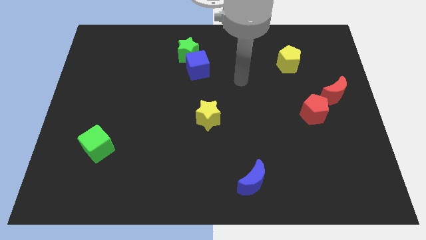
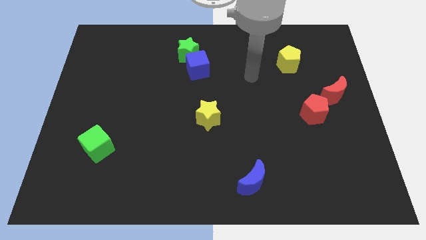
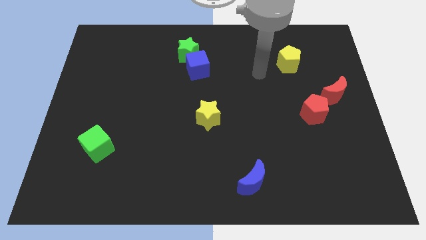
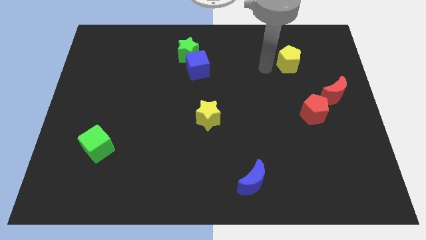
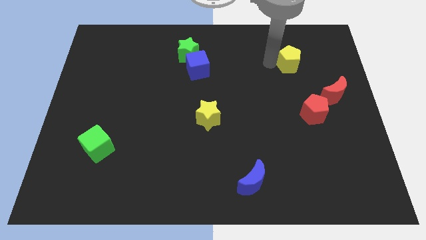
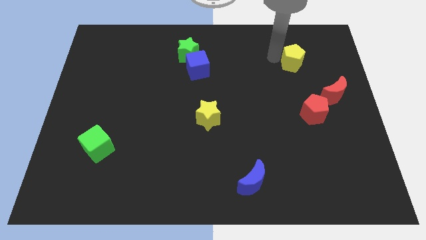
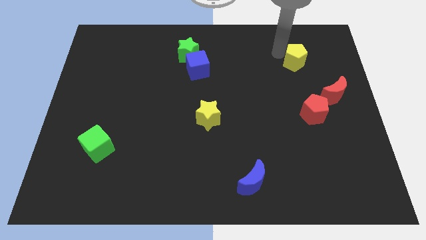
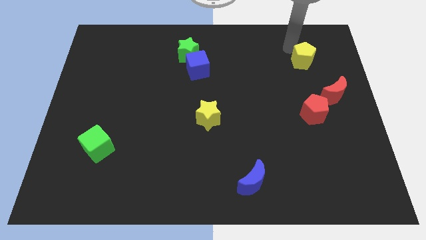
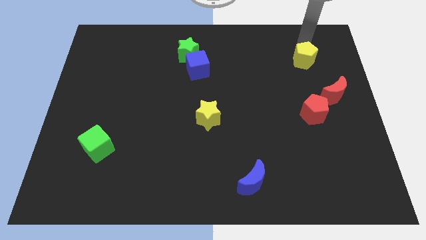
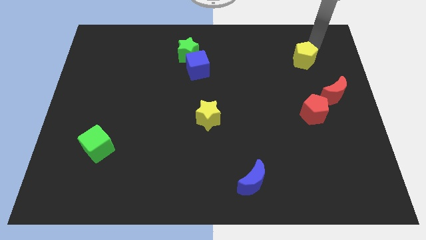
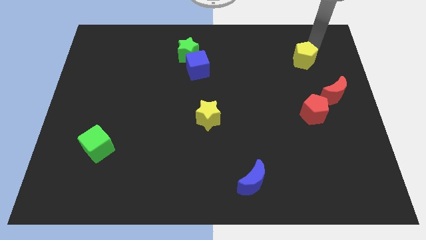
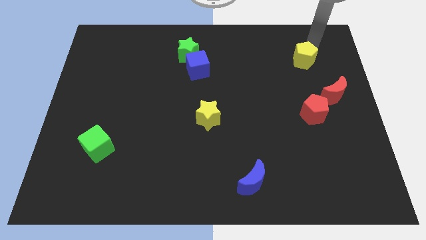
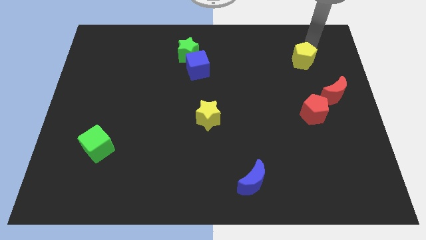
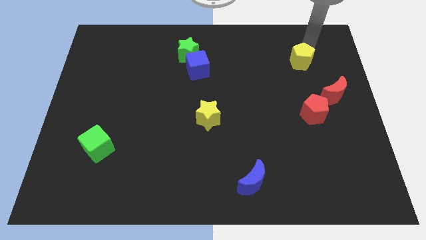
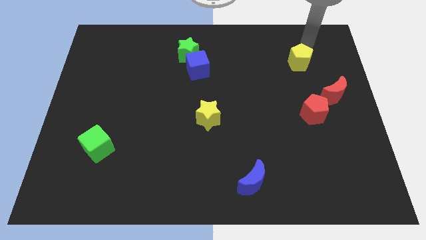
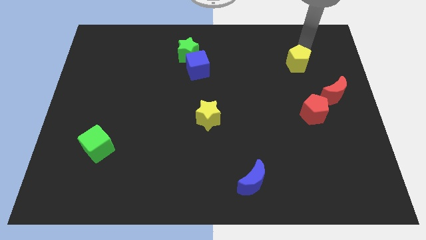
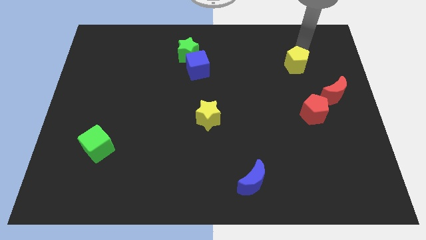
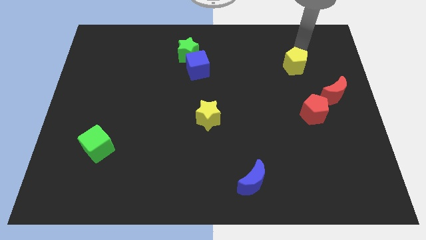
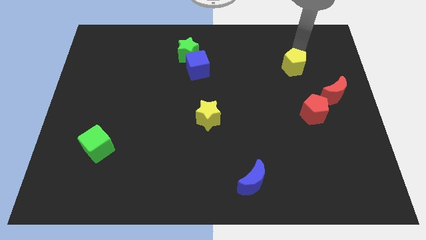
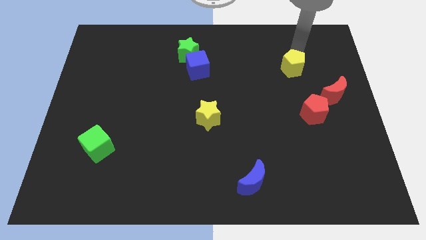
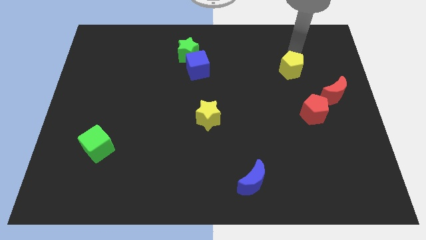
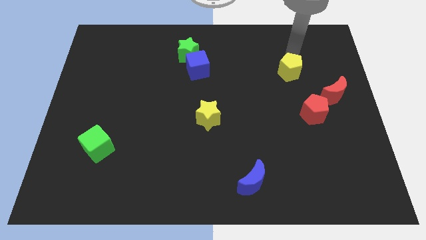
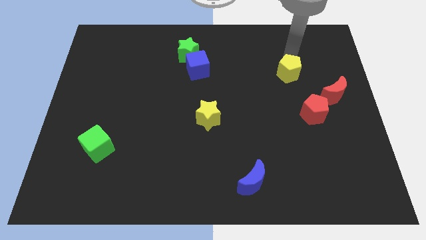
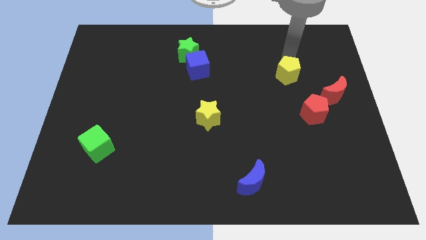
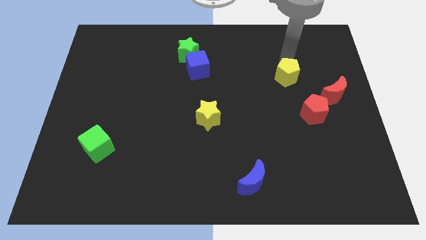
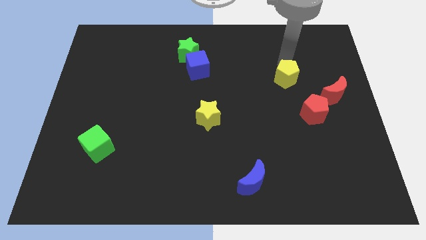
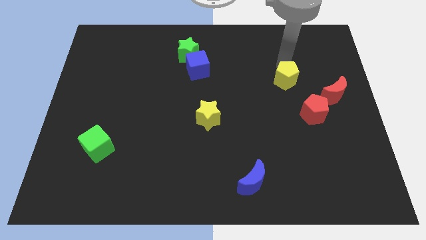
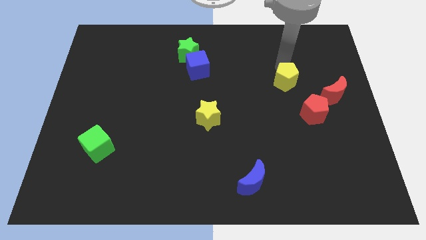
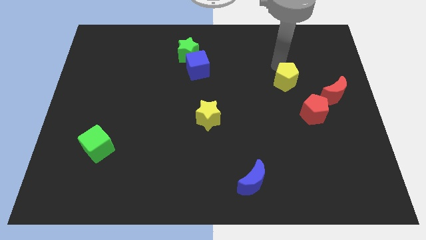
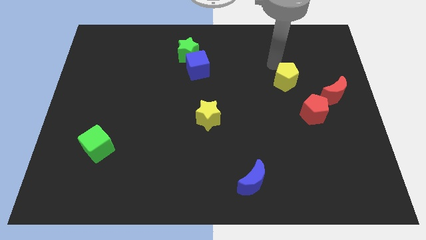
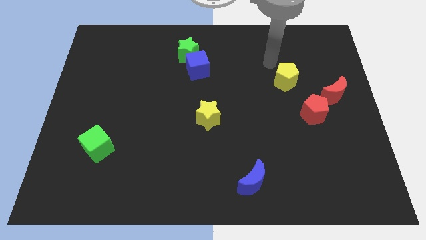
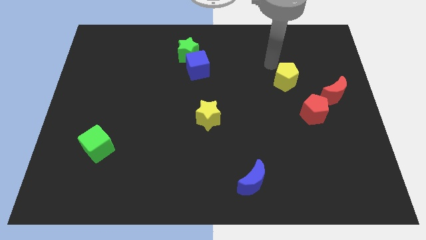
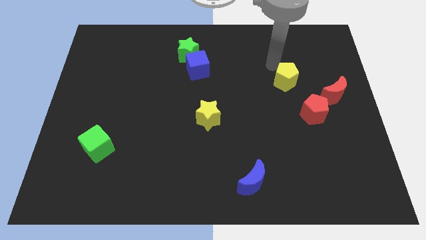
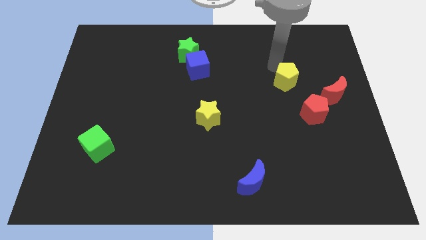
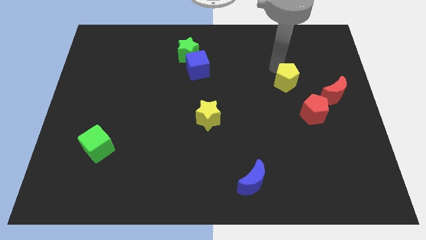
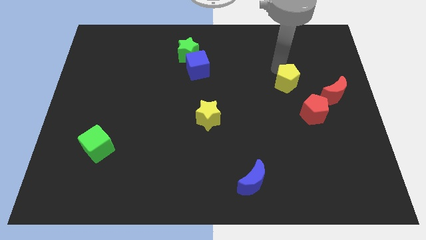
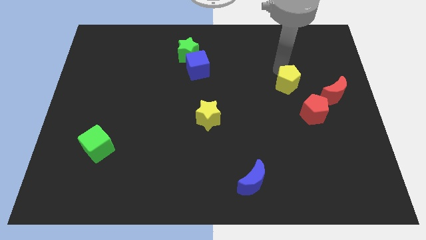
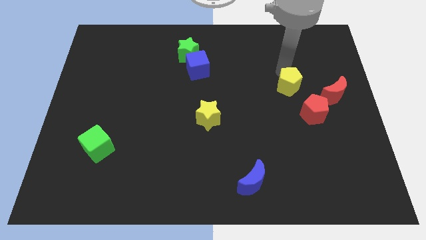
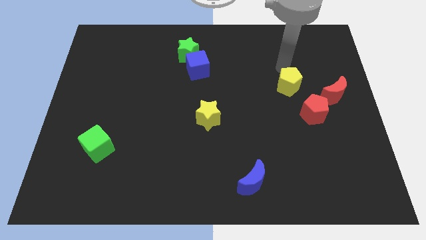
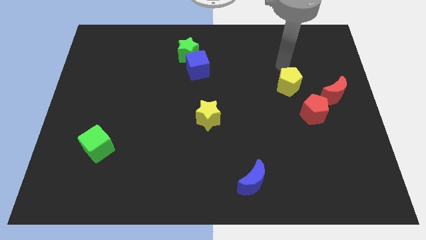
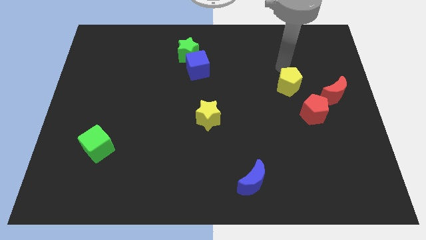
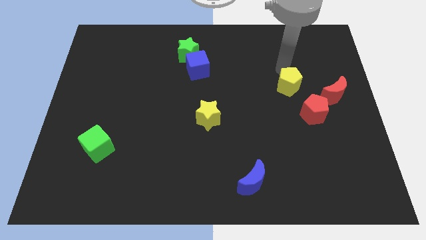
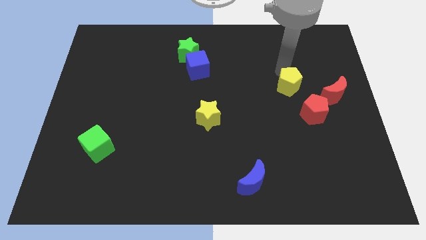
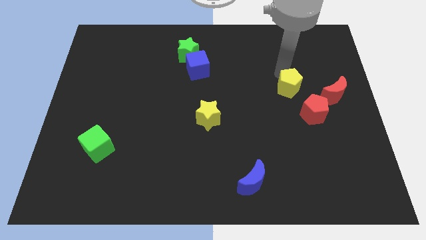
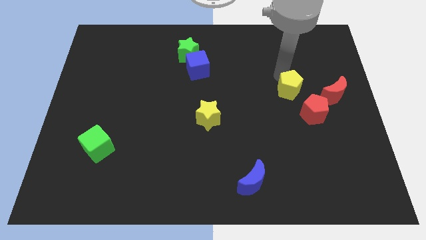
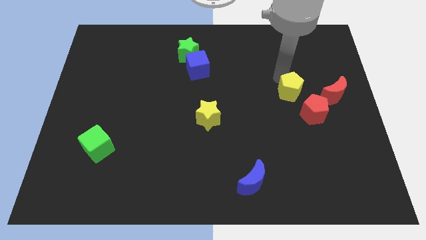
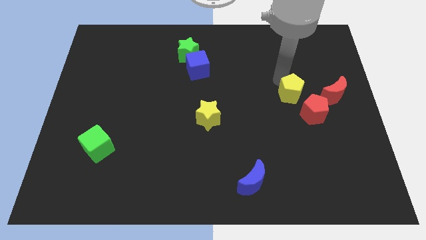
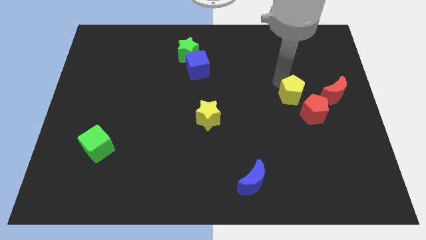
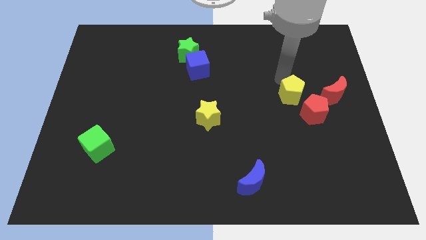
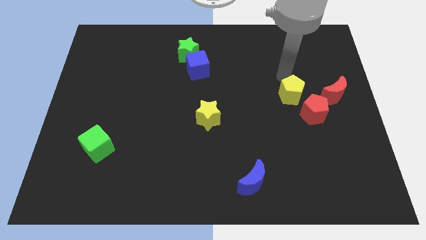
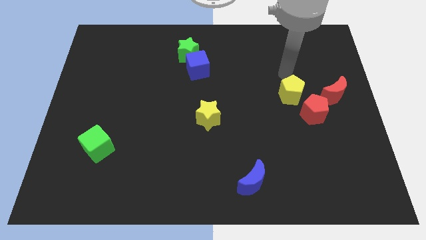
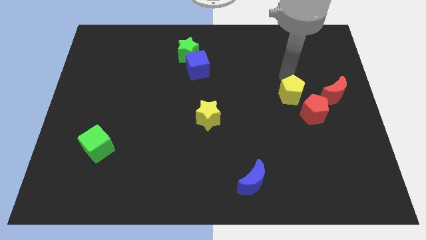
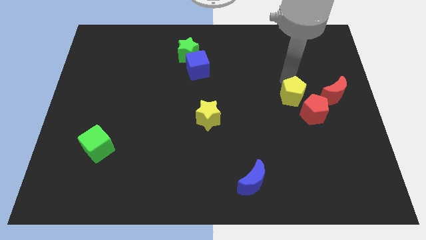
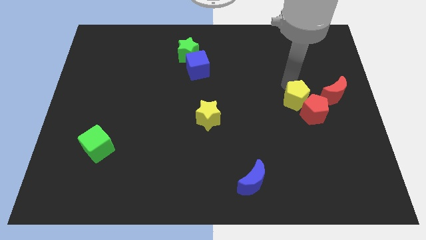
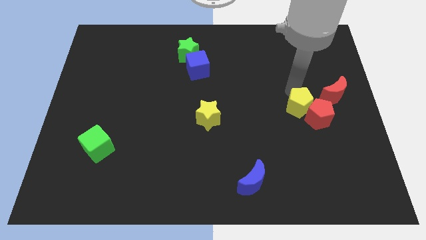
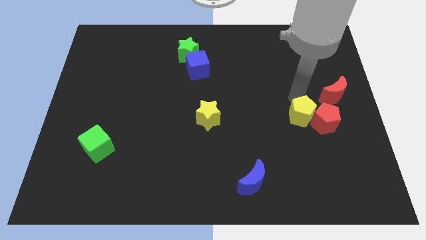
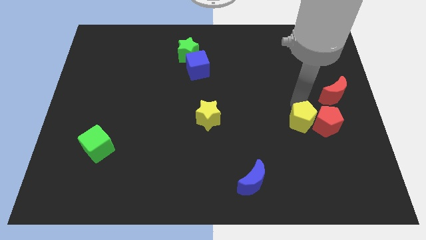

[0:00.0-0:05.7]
move the yellow pentagon diagonally down and to the left of the red pentagon

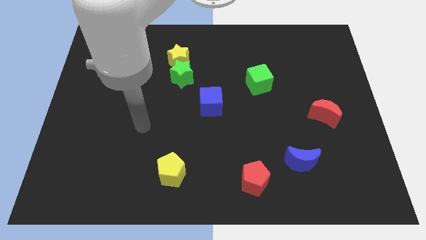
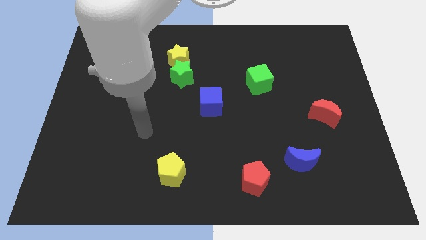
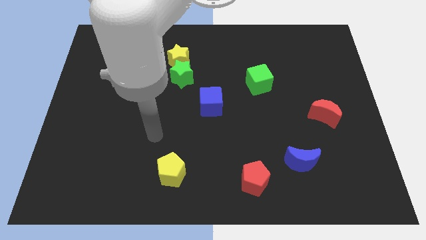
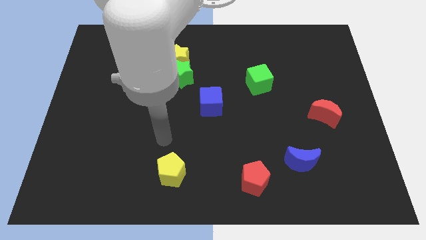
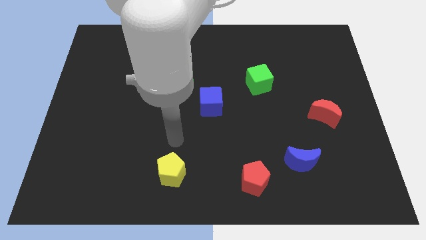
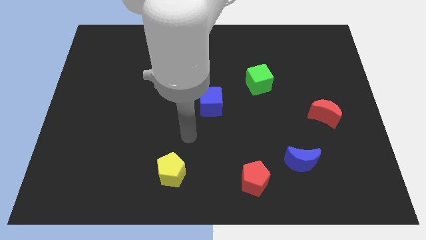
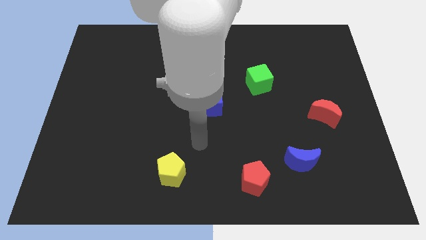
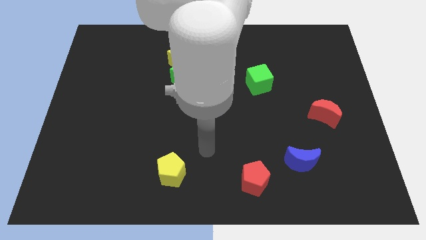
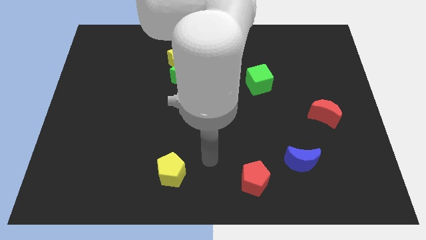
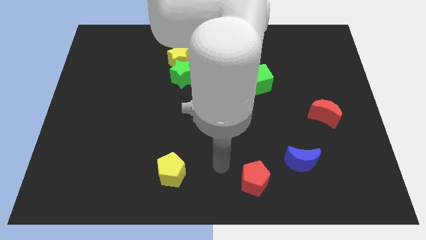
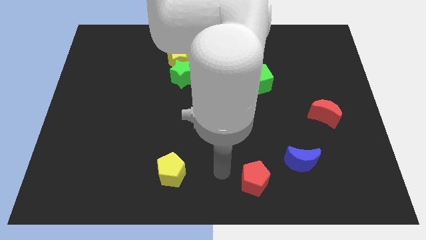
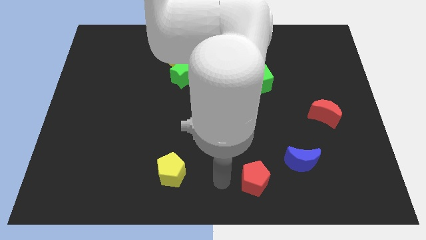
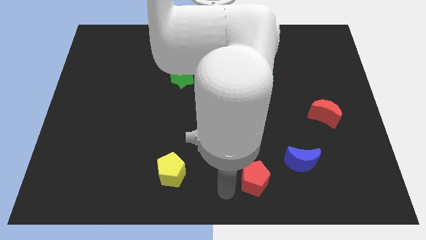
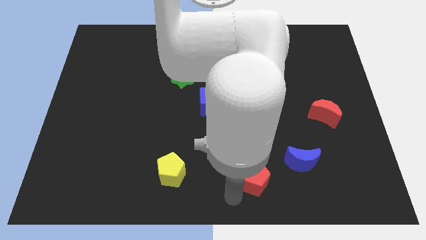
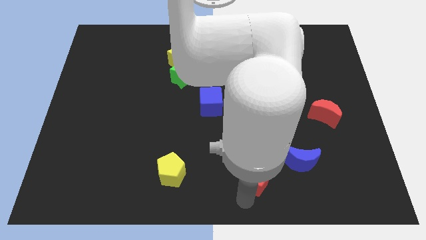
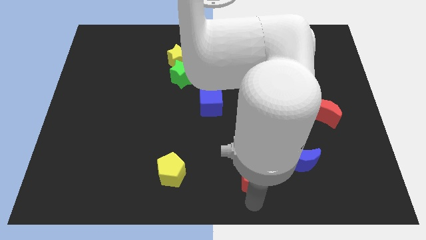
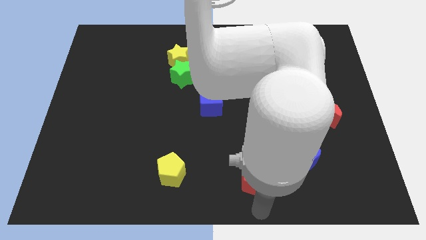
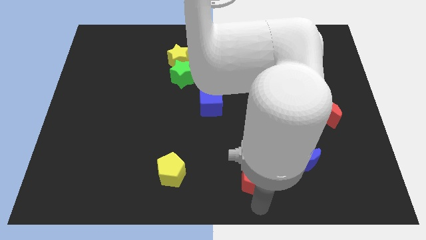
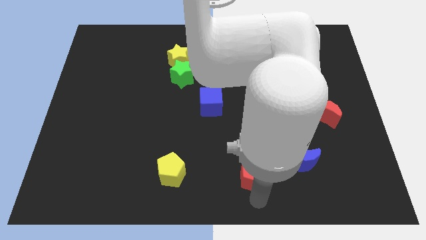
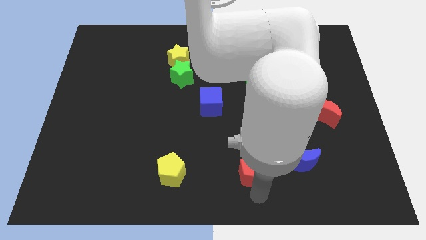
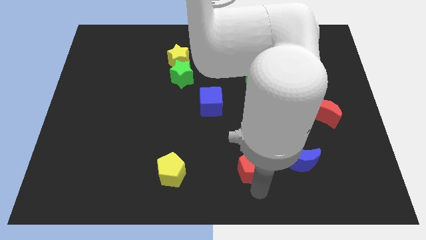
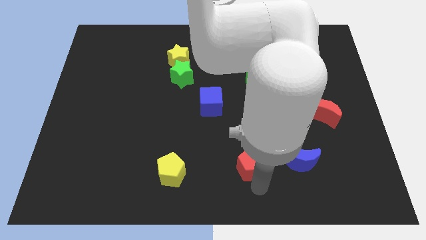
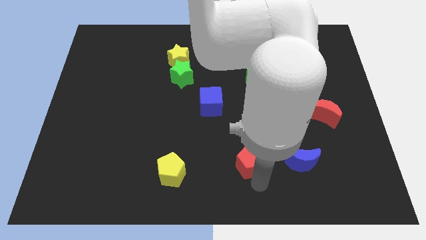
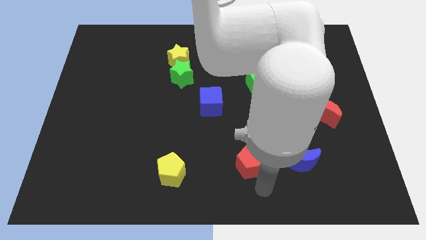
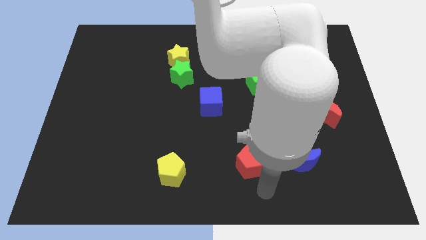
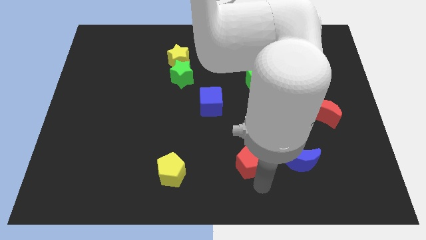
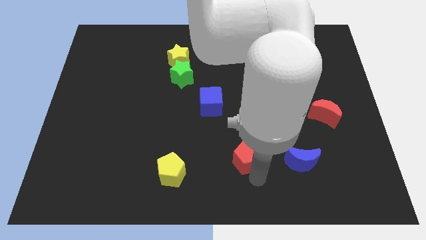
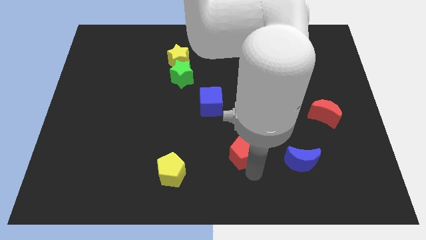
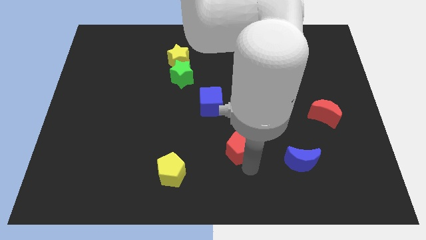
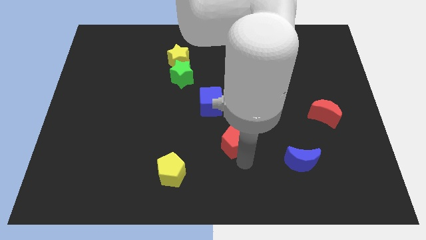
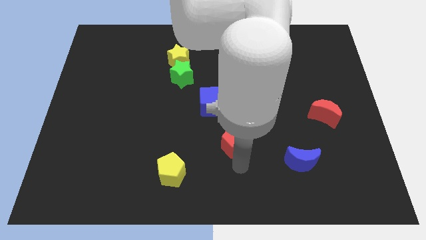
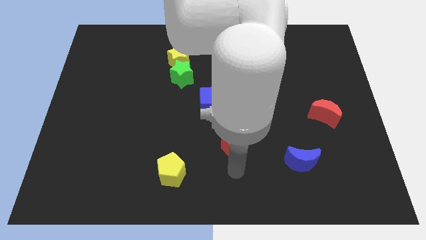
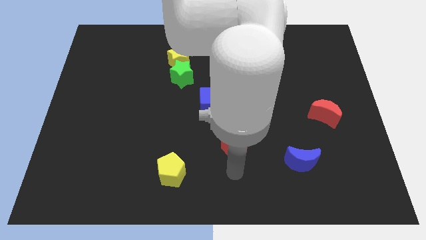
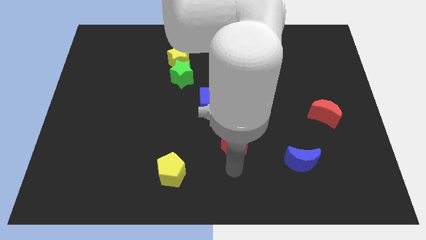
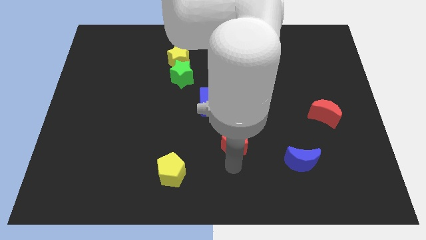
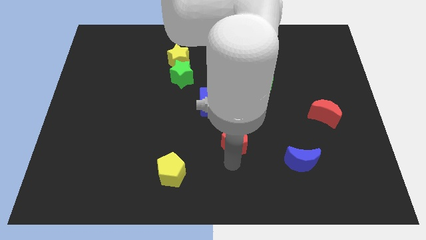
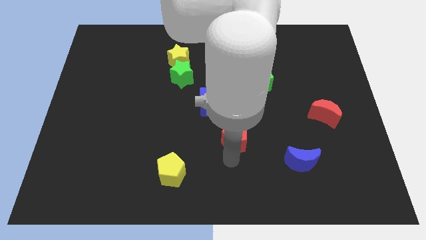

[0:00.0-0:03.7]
slide the red pentagon to the bottom right of the blue cube
